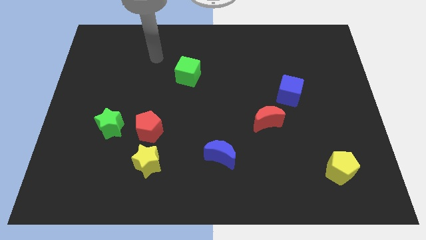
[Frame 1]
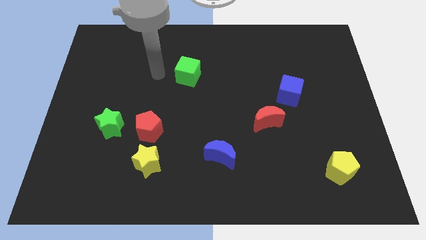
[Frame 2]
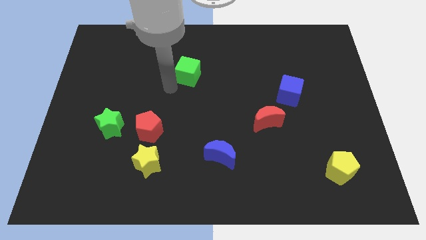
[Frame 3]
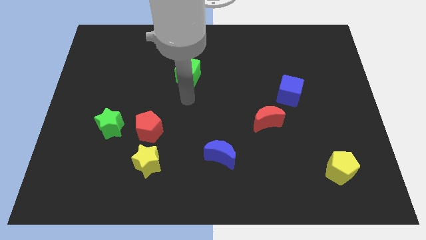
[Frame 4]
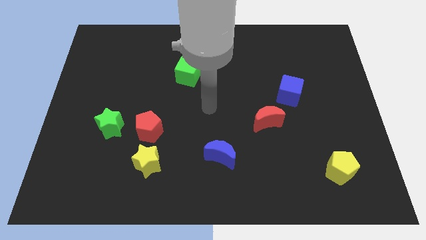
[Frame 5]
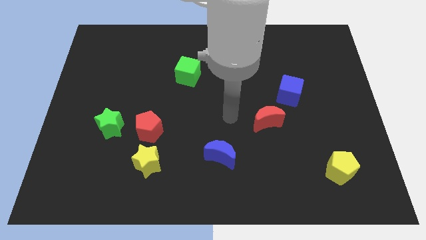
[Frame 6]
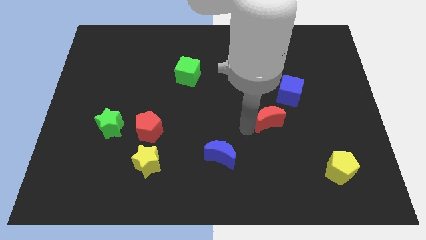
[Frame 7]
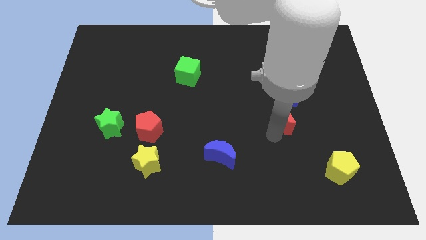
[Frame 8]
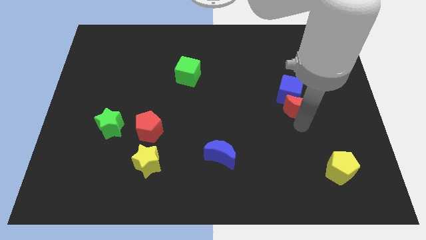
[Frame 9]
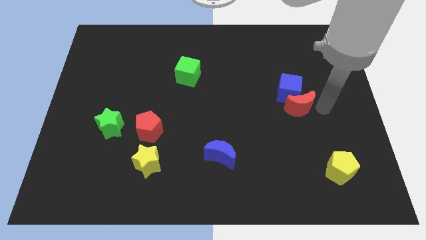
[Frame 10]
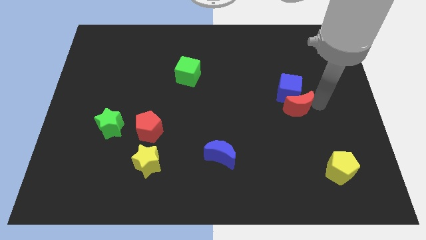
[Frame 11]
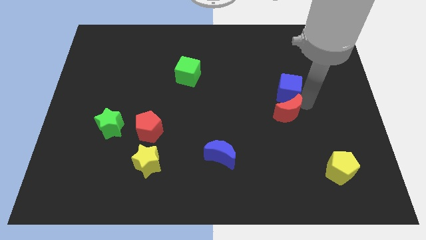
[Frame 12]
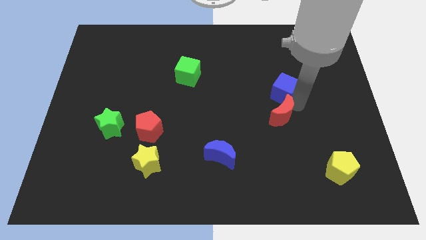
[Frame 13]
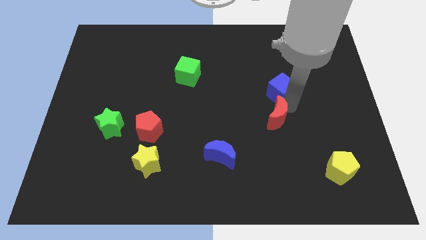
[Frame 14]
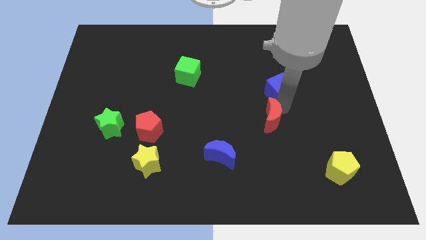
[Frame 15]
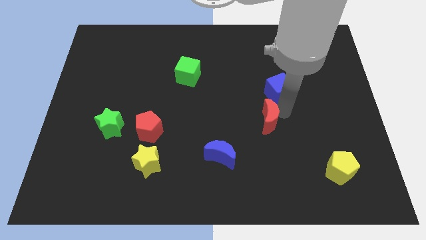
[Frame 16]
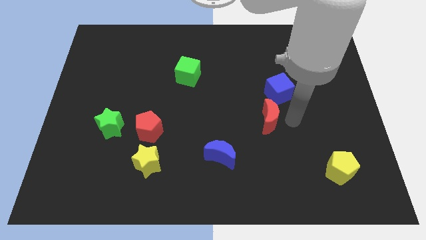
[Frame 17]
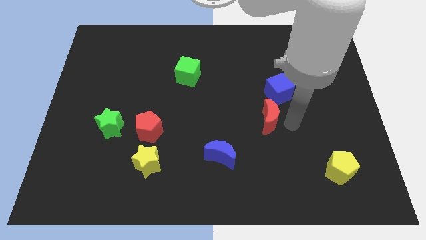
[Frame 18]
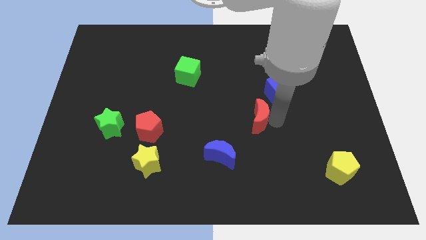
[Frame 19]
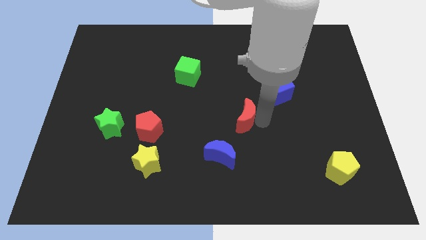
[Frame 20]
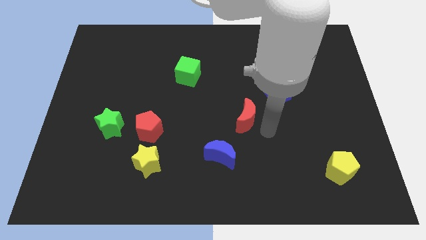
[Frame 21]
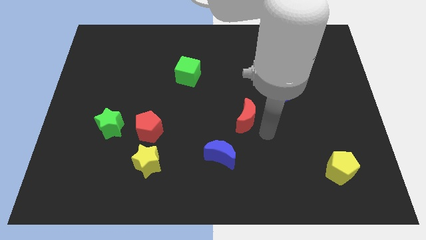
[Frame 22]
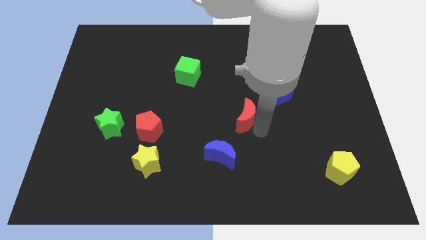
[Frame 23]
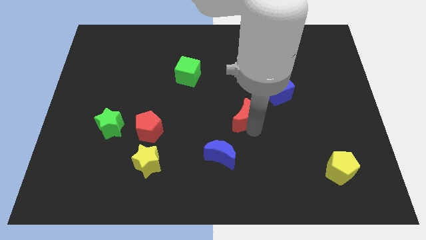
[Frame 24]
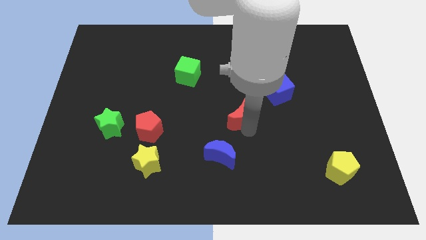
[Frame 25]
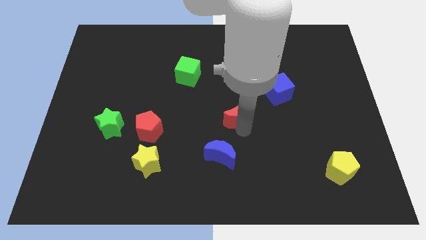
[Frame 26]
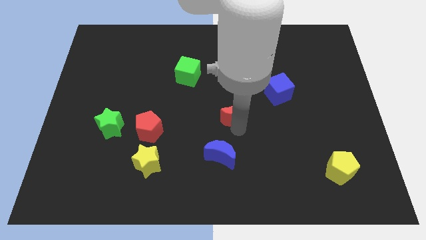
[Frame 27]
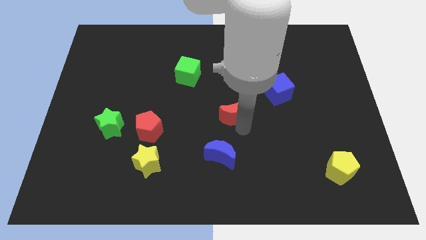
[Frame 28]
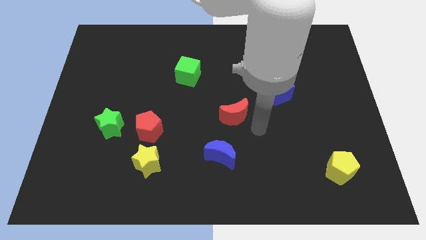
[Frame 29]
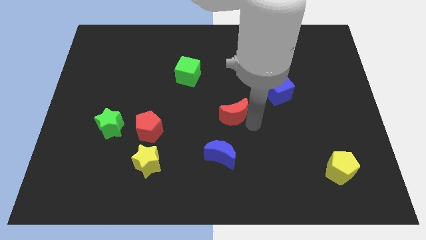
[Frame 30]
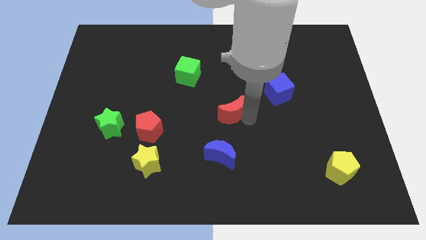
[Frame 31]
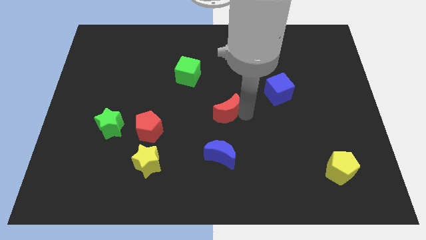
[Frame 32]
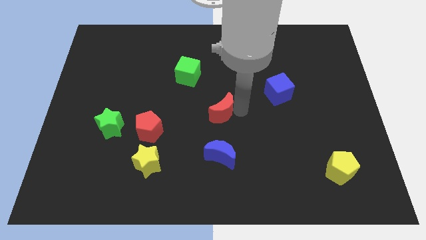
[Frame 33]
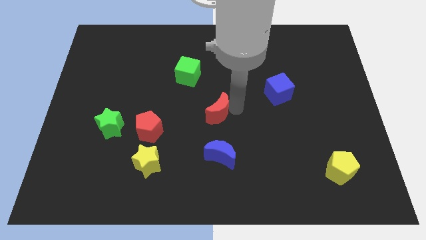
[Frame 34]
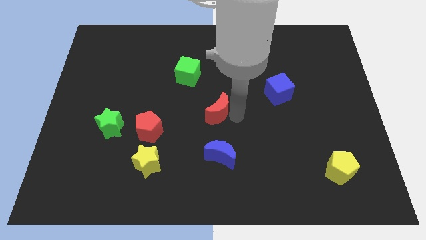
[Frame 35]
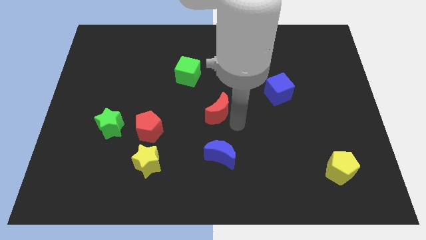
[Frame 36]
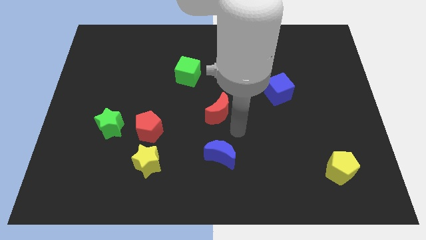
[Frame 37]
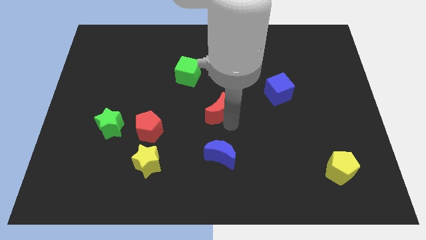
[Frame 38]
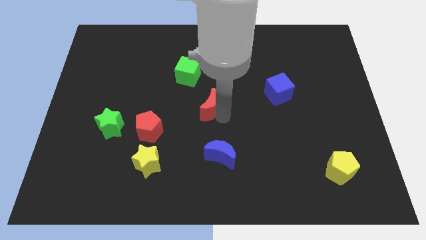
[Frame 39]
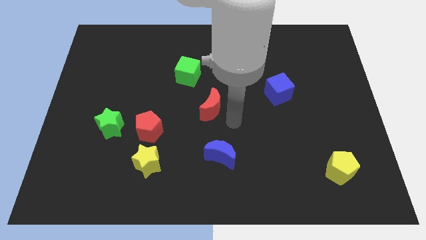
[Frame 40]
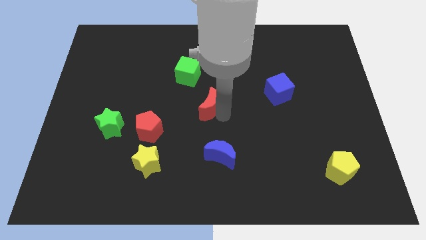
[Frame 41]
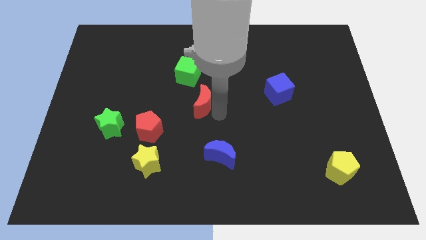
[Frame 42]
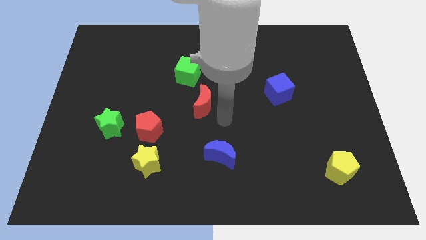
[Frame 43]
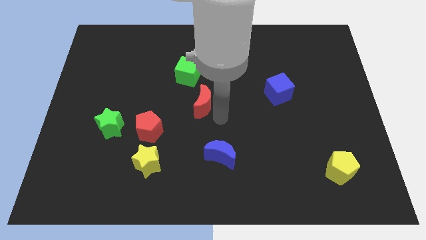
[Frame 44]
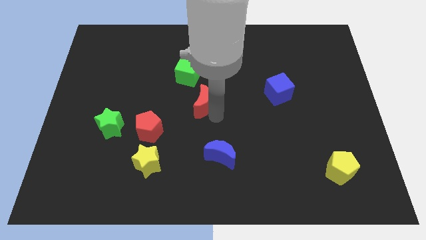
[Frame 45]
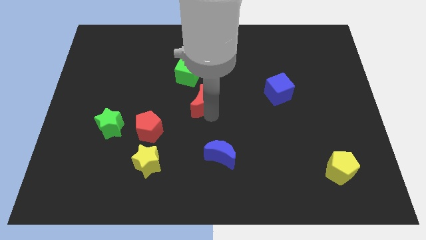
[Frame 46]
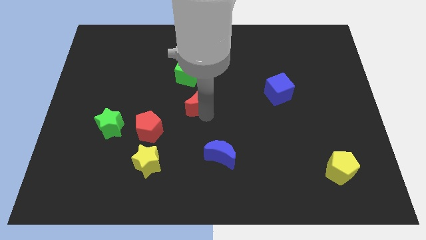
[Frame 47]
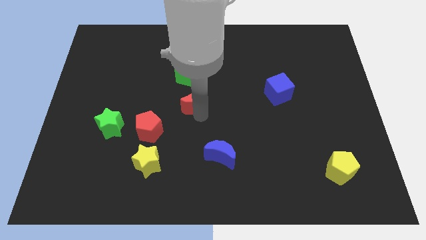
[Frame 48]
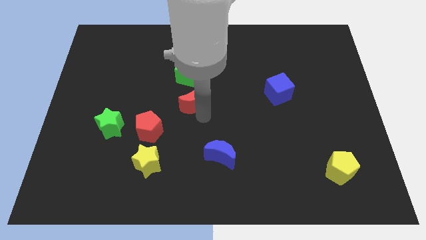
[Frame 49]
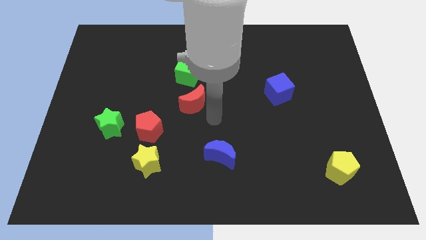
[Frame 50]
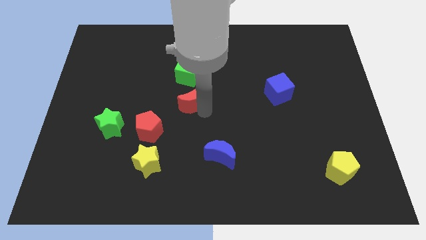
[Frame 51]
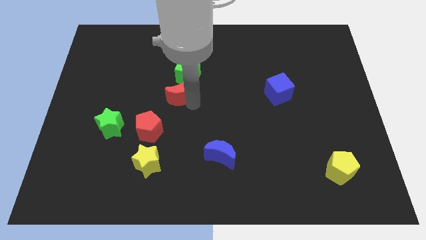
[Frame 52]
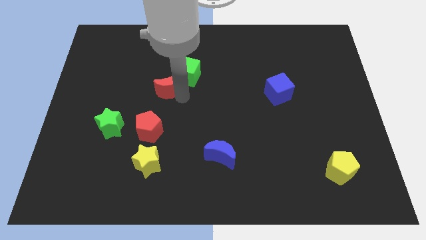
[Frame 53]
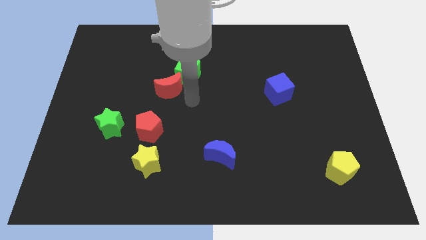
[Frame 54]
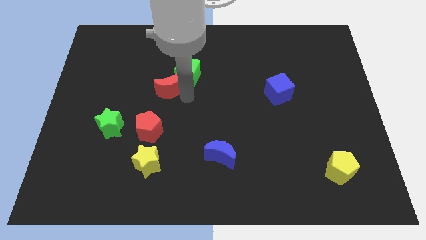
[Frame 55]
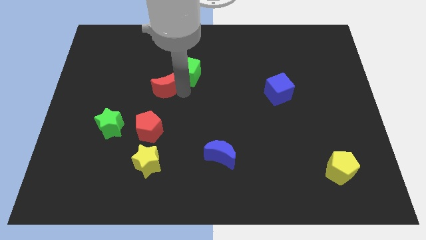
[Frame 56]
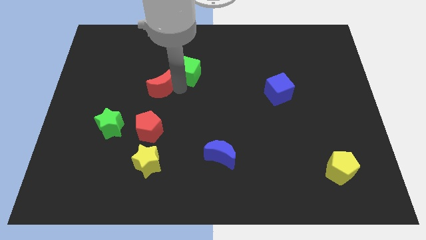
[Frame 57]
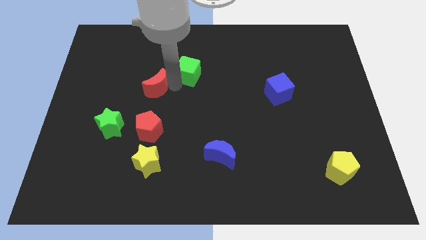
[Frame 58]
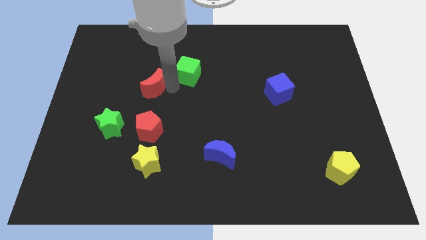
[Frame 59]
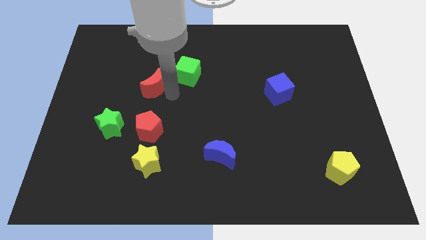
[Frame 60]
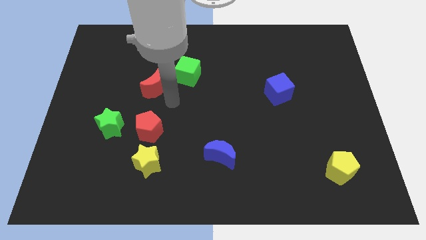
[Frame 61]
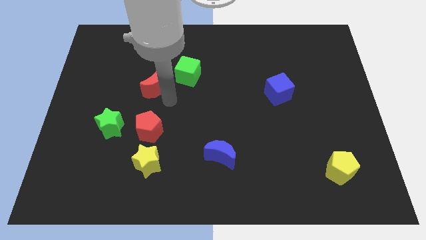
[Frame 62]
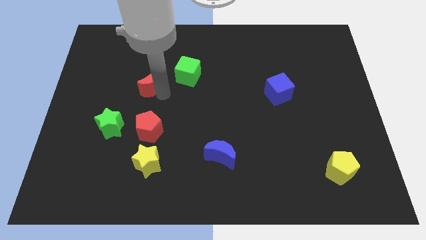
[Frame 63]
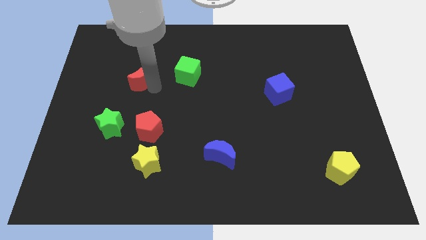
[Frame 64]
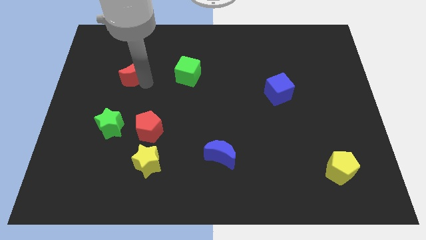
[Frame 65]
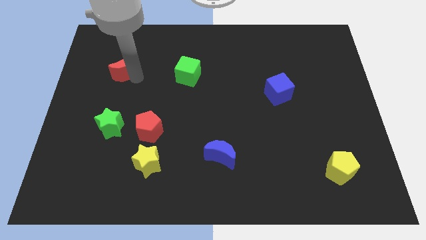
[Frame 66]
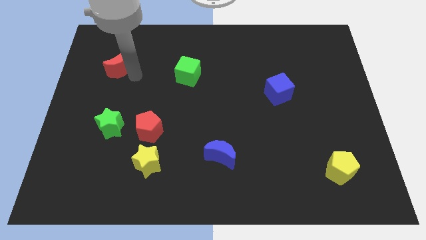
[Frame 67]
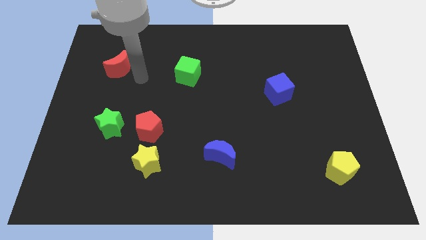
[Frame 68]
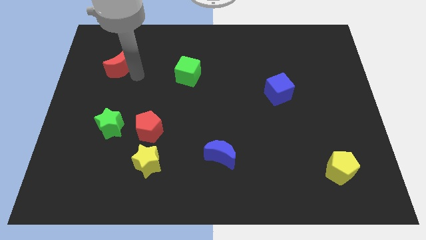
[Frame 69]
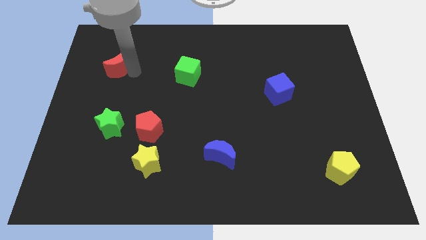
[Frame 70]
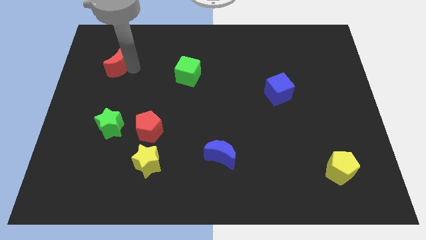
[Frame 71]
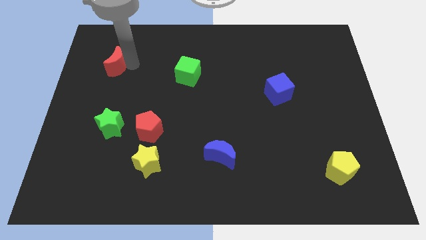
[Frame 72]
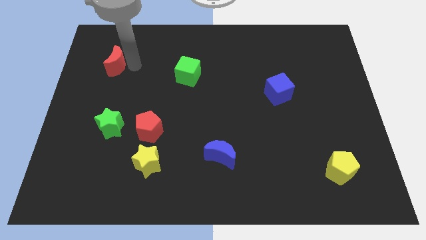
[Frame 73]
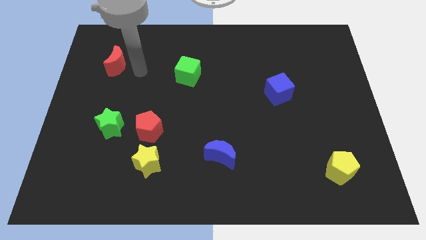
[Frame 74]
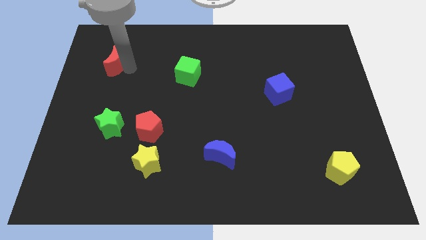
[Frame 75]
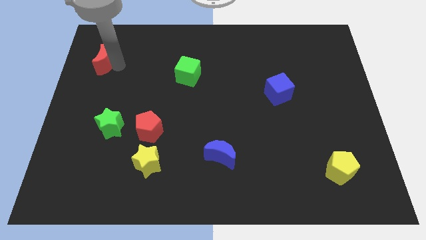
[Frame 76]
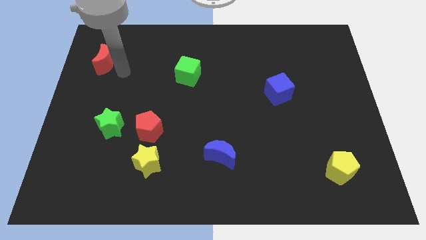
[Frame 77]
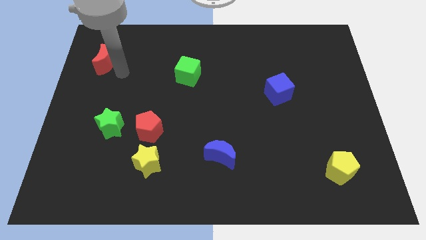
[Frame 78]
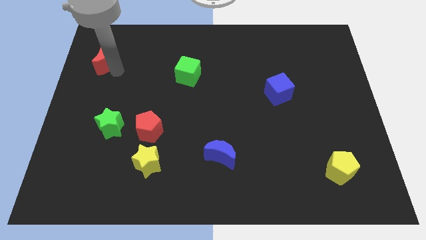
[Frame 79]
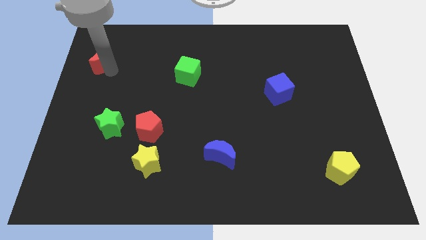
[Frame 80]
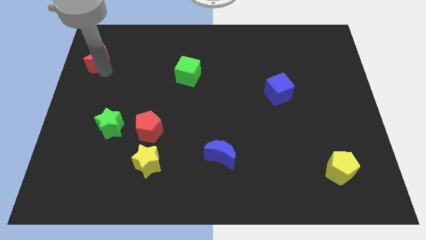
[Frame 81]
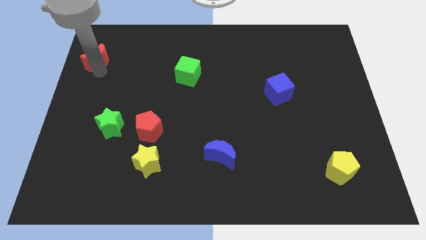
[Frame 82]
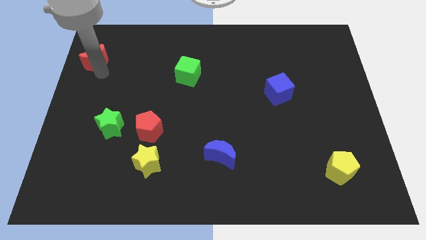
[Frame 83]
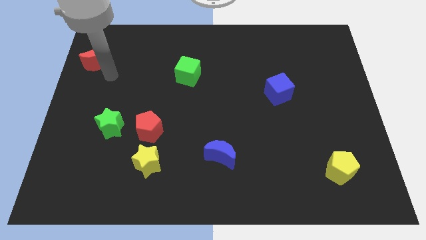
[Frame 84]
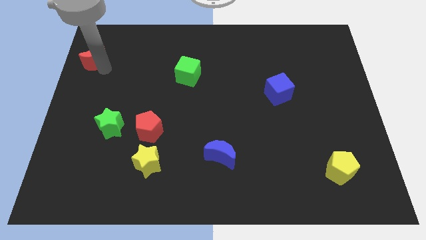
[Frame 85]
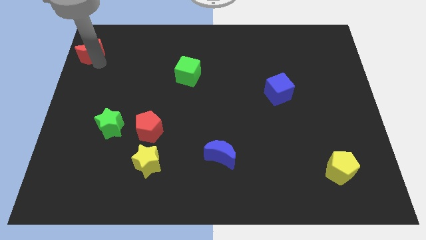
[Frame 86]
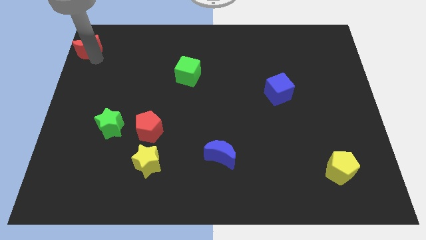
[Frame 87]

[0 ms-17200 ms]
put the red moon to the upper left corner
